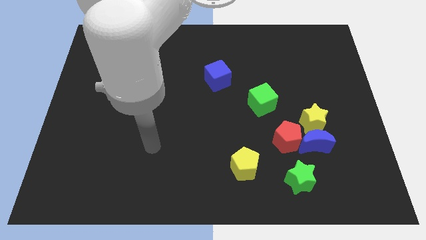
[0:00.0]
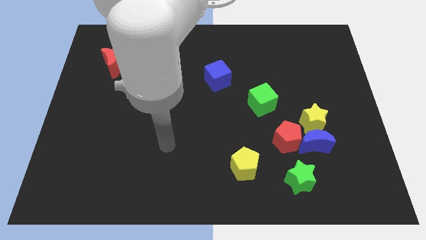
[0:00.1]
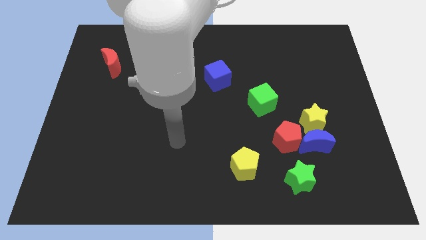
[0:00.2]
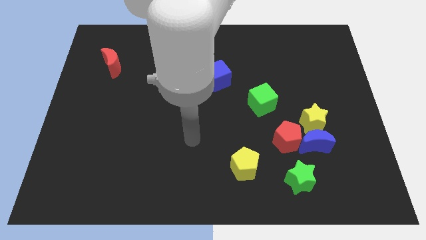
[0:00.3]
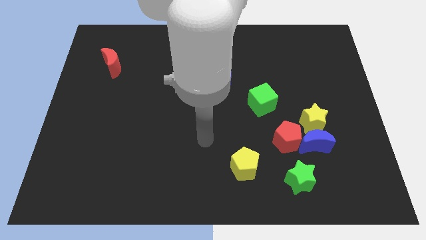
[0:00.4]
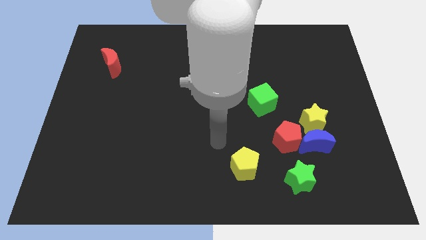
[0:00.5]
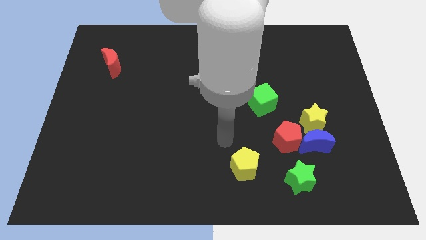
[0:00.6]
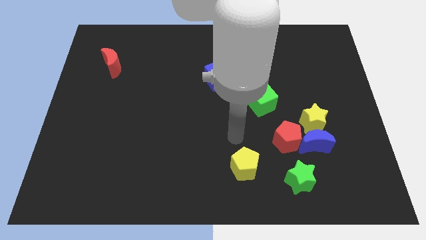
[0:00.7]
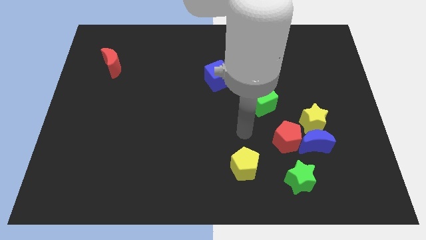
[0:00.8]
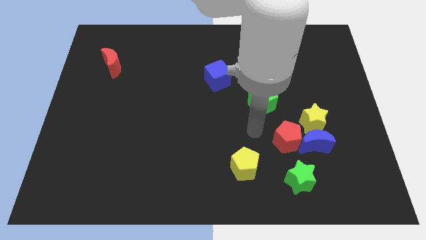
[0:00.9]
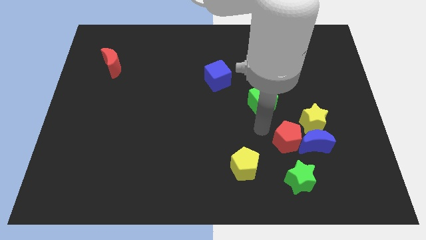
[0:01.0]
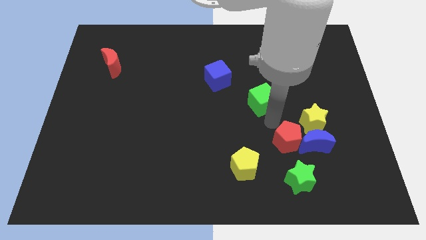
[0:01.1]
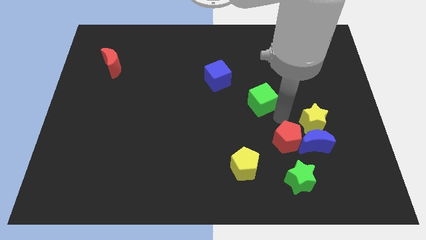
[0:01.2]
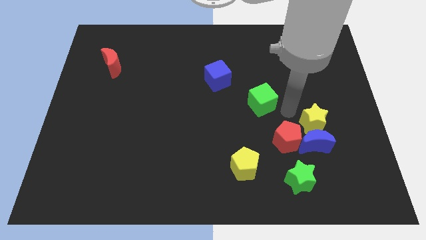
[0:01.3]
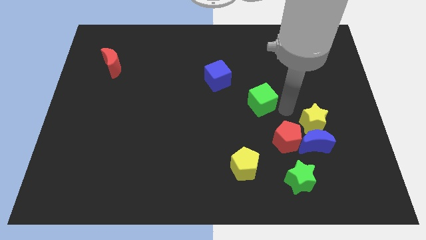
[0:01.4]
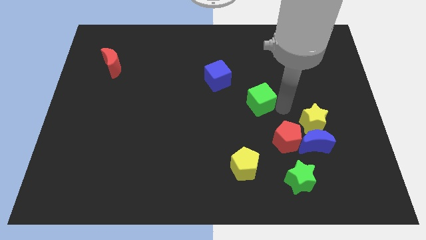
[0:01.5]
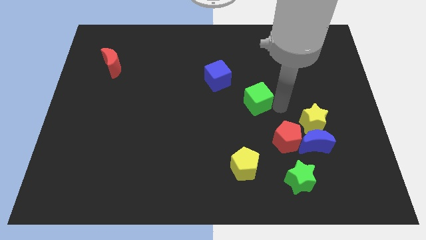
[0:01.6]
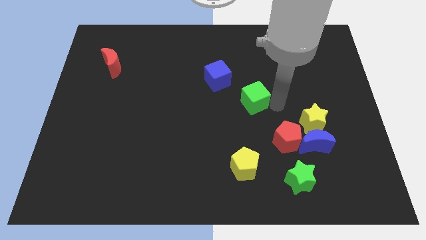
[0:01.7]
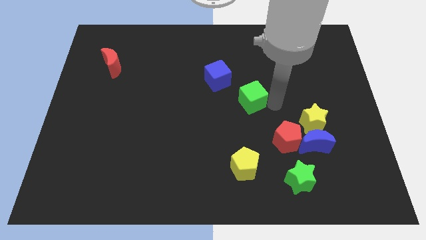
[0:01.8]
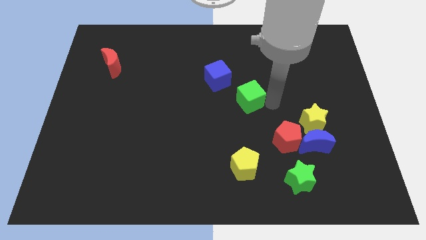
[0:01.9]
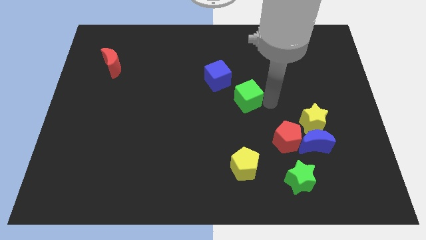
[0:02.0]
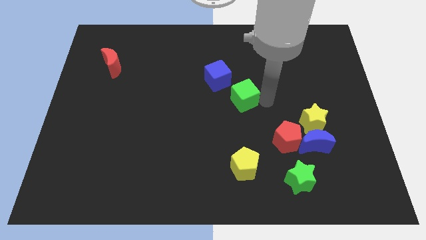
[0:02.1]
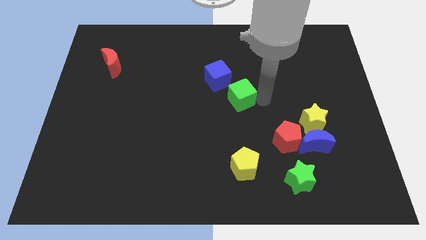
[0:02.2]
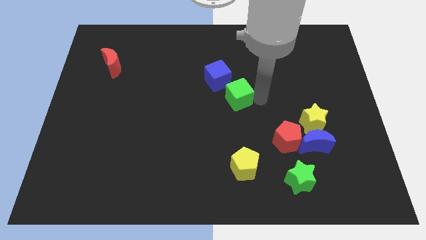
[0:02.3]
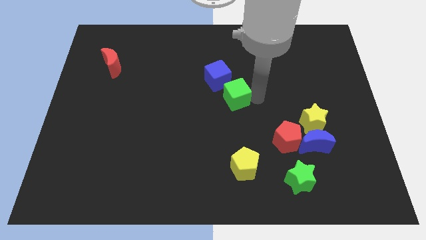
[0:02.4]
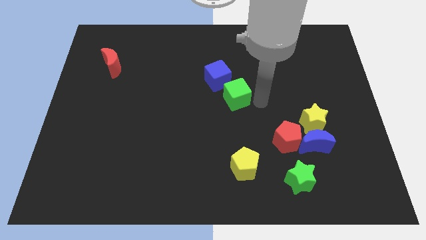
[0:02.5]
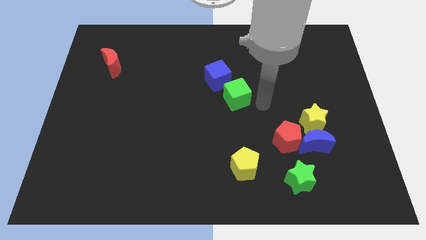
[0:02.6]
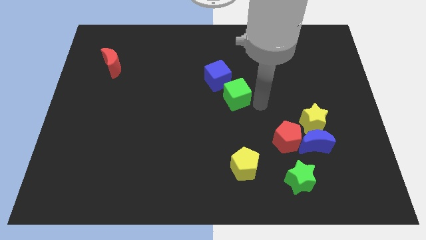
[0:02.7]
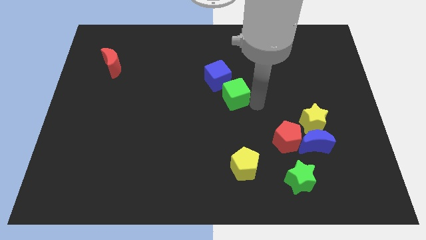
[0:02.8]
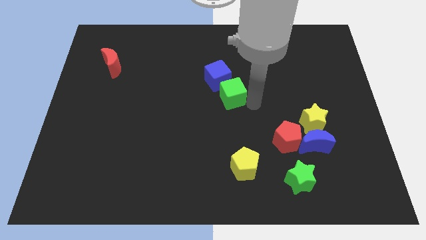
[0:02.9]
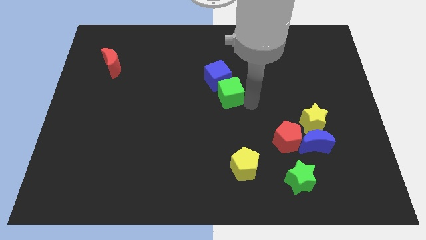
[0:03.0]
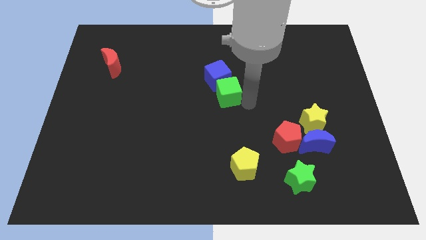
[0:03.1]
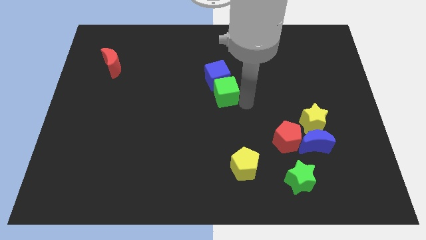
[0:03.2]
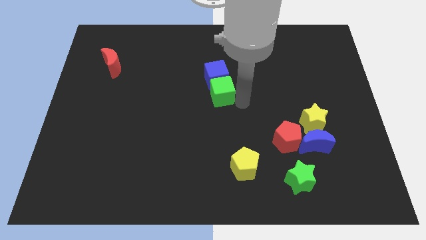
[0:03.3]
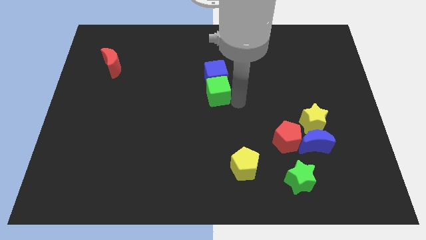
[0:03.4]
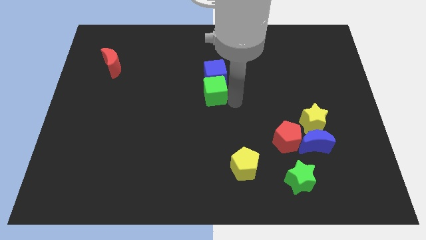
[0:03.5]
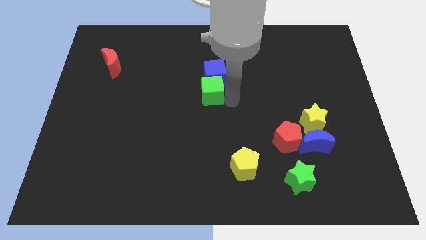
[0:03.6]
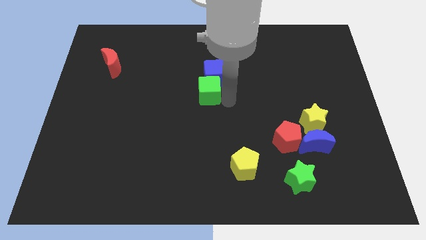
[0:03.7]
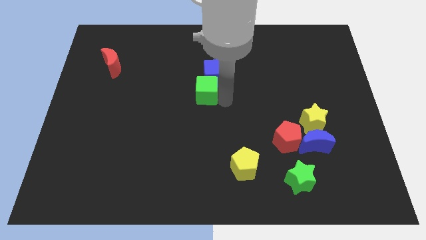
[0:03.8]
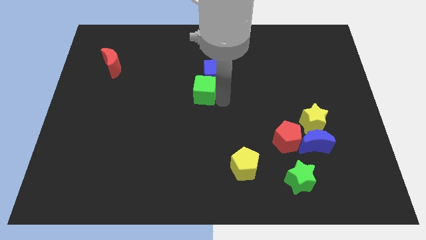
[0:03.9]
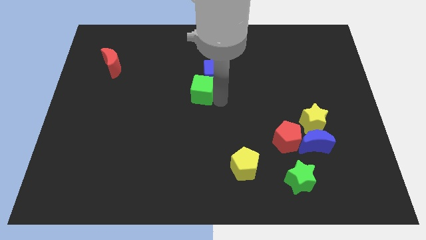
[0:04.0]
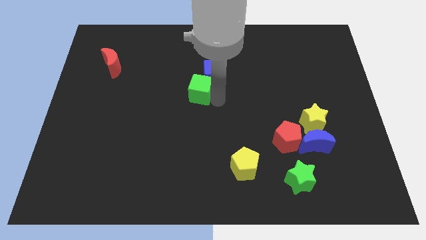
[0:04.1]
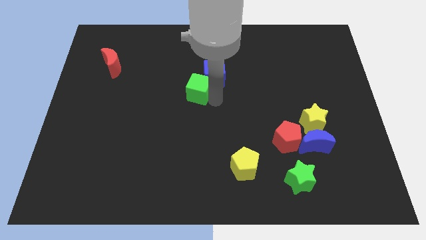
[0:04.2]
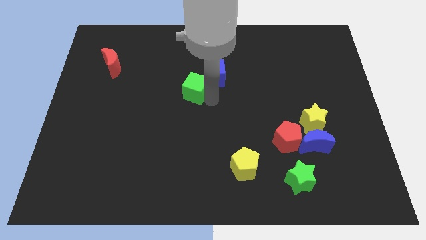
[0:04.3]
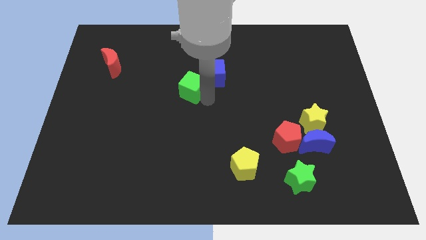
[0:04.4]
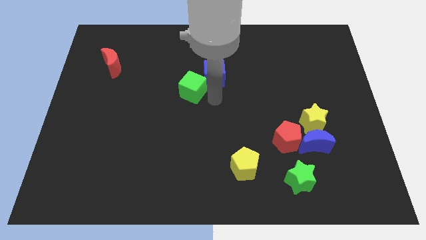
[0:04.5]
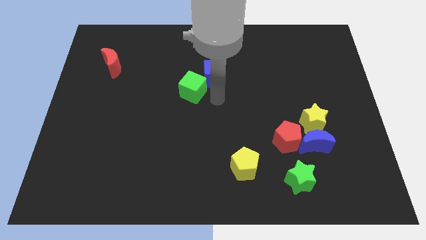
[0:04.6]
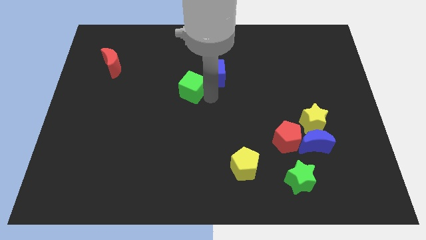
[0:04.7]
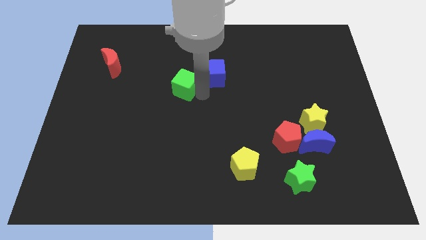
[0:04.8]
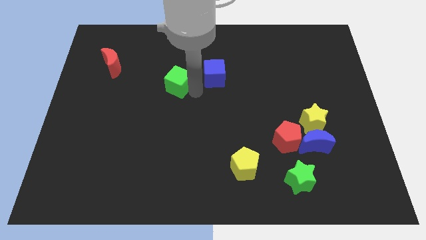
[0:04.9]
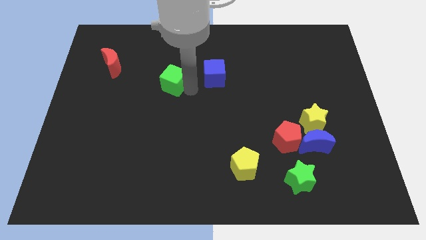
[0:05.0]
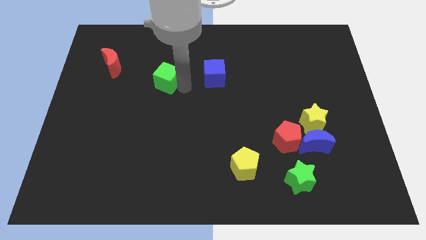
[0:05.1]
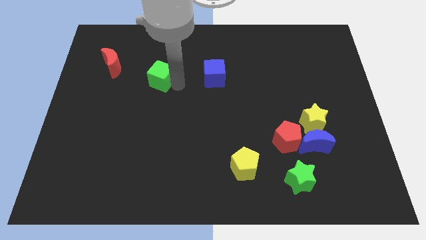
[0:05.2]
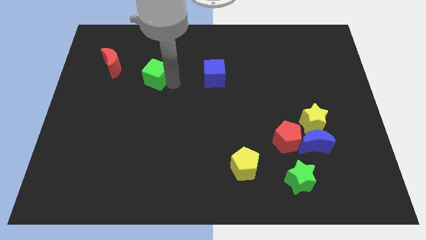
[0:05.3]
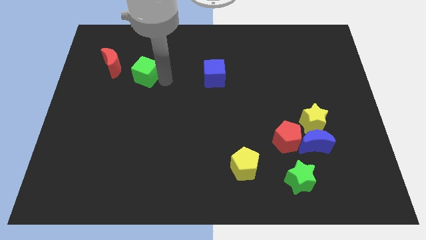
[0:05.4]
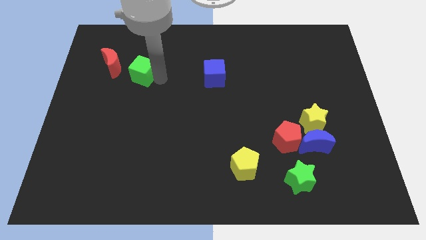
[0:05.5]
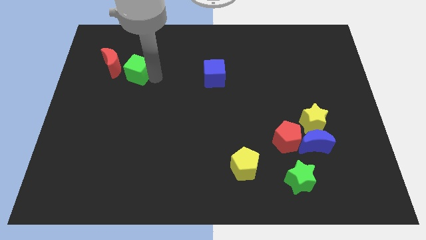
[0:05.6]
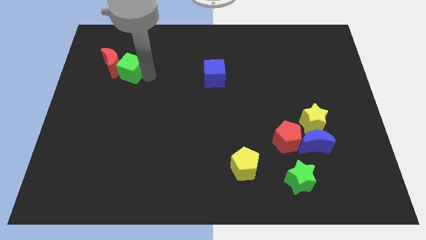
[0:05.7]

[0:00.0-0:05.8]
push the green cube to the red moon
